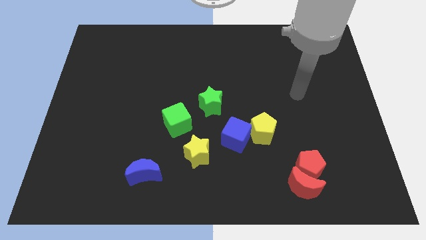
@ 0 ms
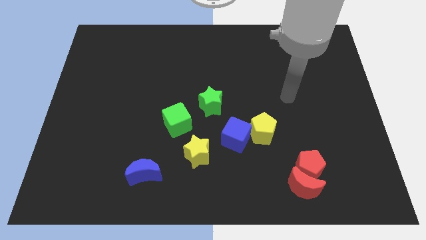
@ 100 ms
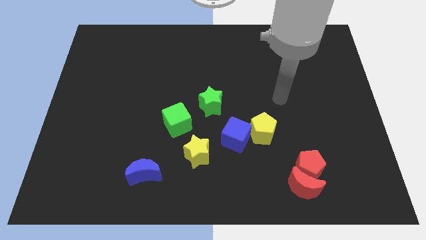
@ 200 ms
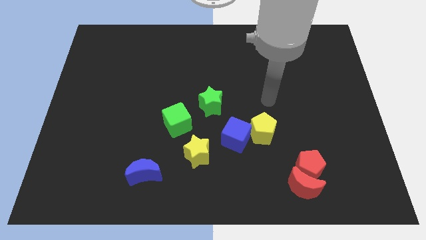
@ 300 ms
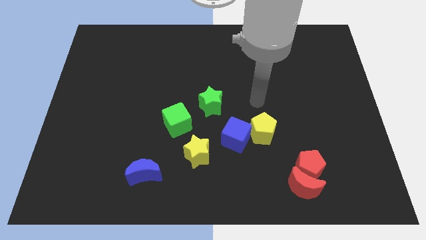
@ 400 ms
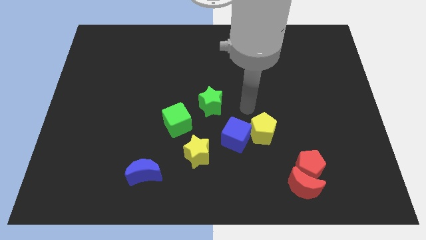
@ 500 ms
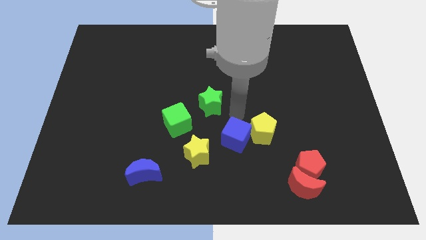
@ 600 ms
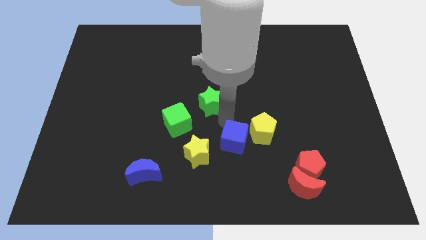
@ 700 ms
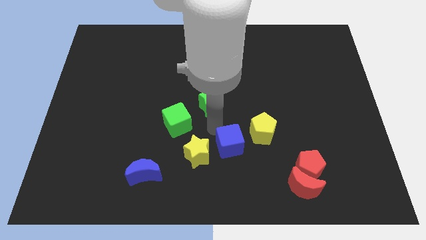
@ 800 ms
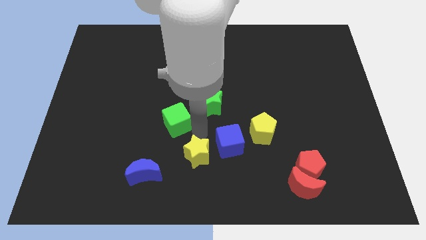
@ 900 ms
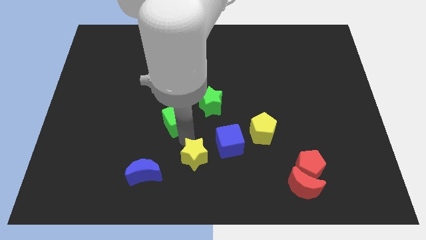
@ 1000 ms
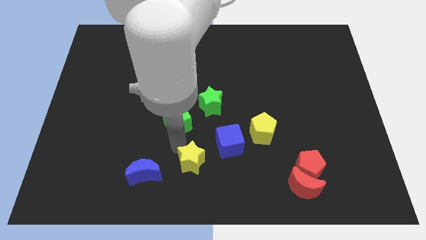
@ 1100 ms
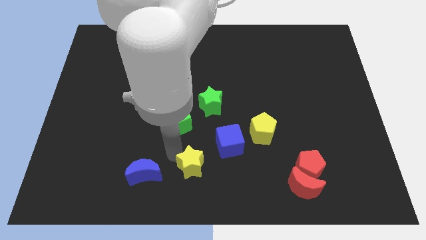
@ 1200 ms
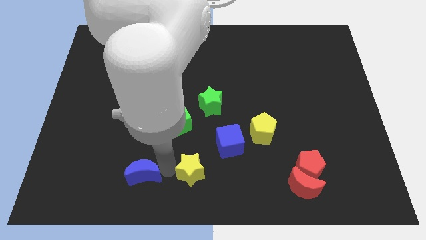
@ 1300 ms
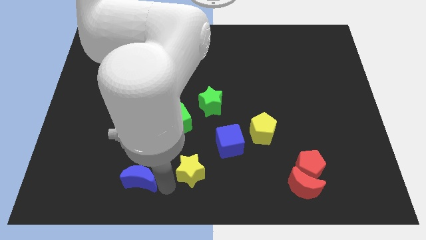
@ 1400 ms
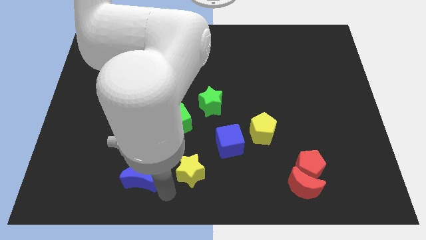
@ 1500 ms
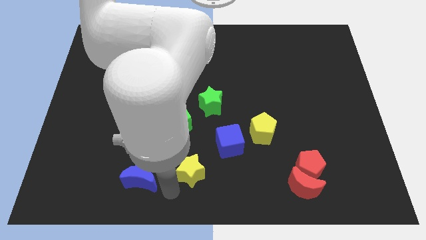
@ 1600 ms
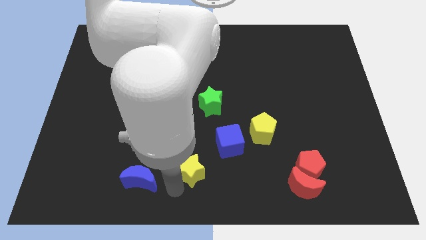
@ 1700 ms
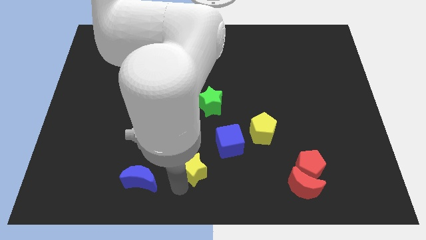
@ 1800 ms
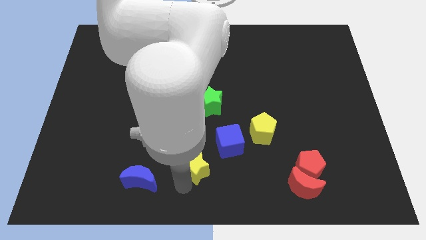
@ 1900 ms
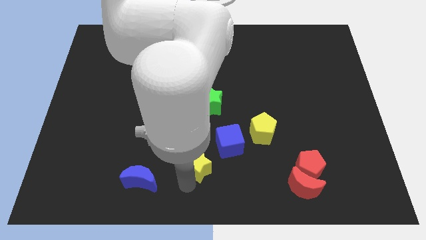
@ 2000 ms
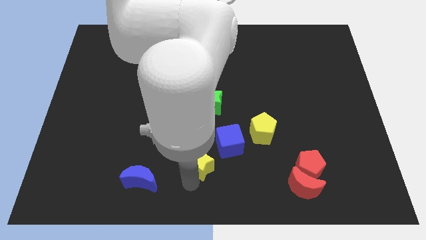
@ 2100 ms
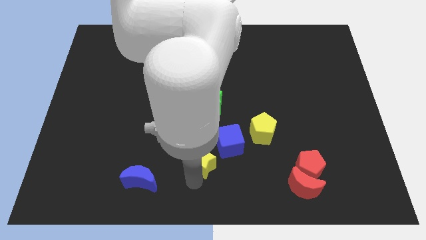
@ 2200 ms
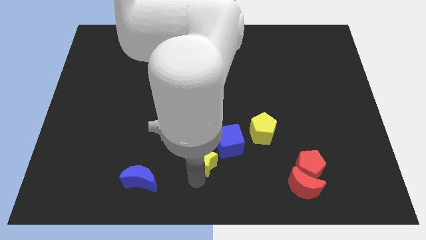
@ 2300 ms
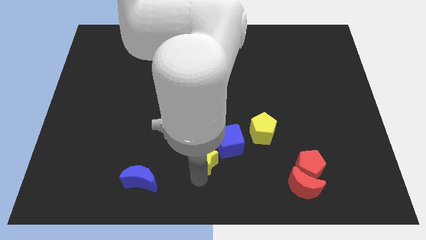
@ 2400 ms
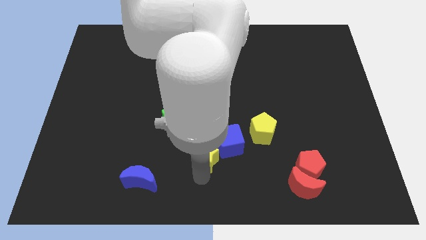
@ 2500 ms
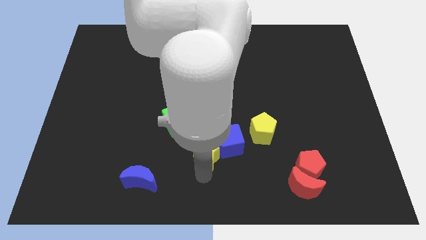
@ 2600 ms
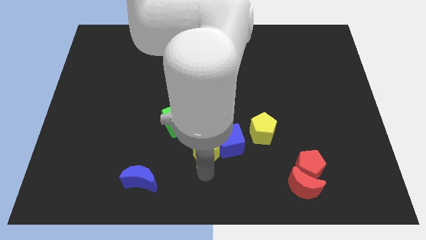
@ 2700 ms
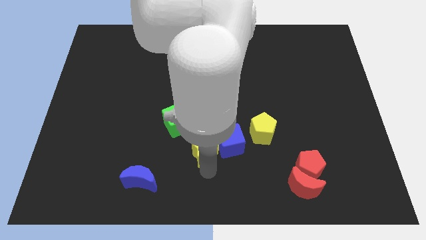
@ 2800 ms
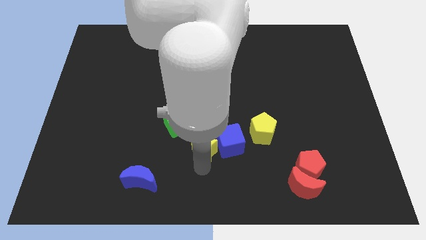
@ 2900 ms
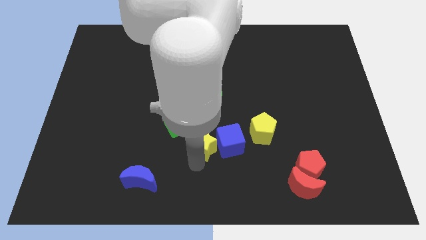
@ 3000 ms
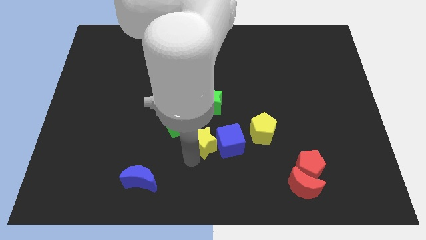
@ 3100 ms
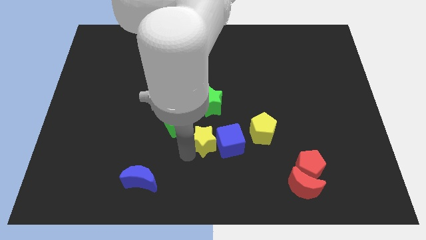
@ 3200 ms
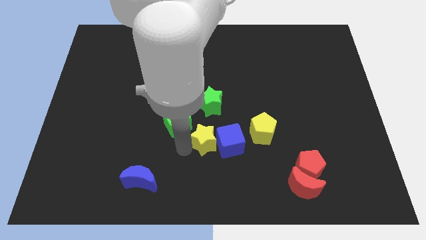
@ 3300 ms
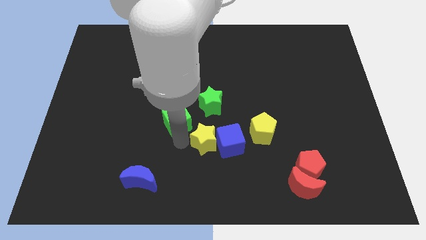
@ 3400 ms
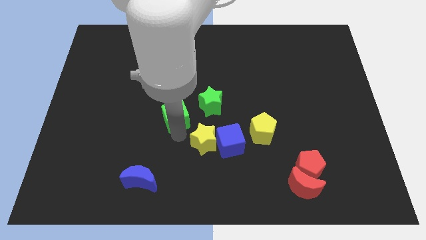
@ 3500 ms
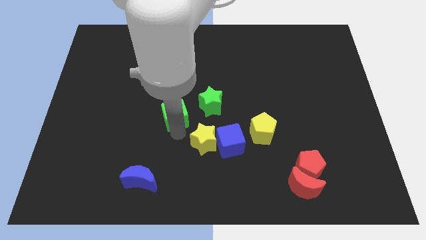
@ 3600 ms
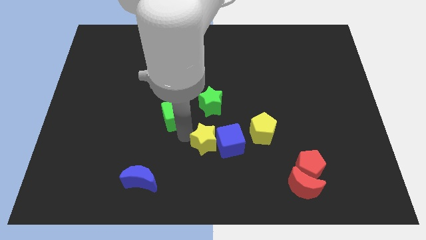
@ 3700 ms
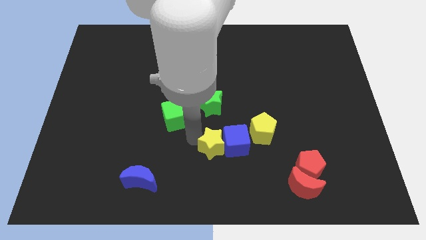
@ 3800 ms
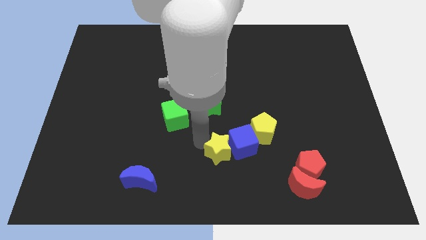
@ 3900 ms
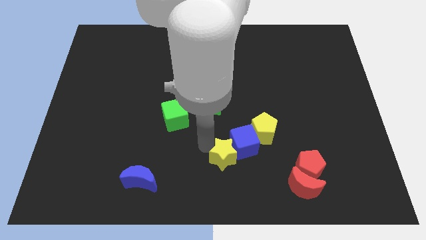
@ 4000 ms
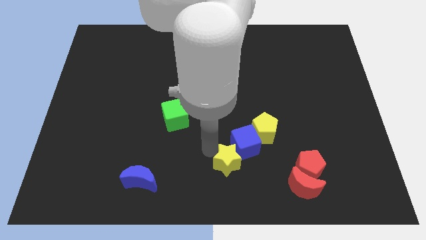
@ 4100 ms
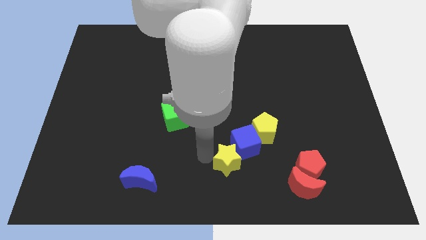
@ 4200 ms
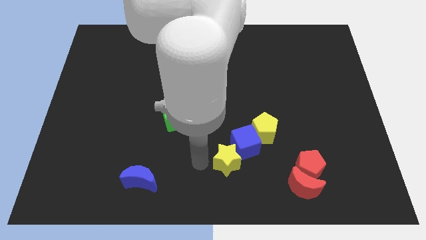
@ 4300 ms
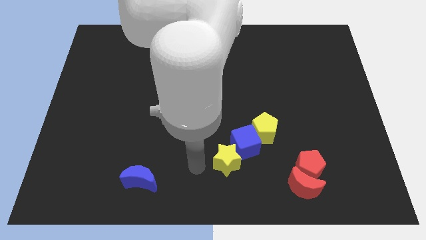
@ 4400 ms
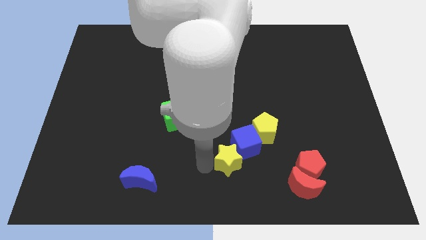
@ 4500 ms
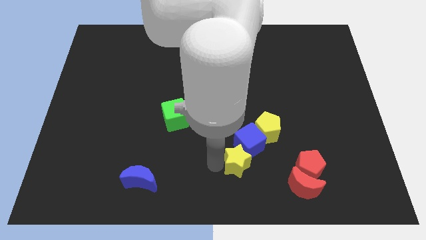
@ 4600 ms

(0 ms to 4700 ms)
slightly move the yellow star right

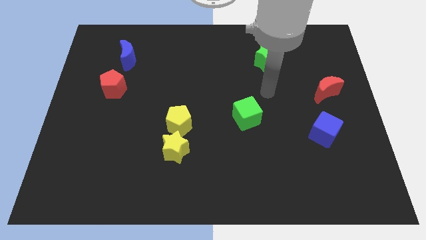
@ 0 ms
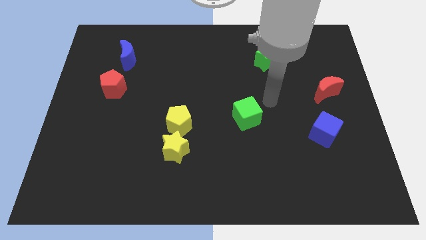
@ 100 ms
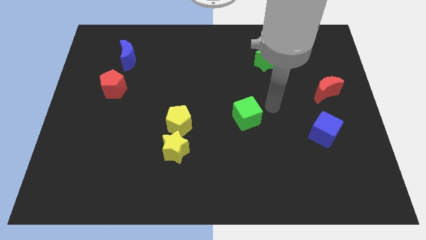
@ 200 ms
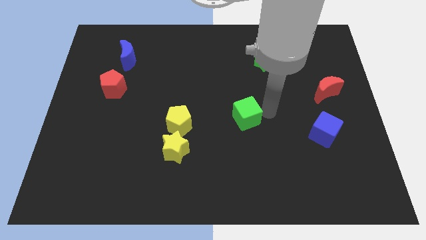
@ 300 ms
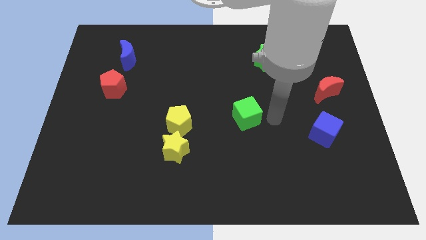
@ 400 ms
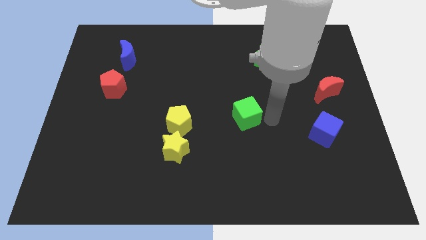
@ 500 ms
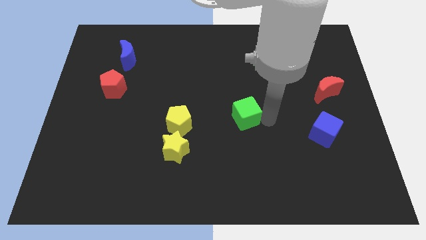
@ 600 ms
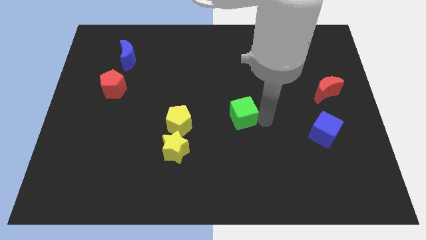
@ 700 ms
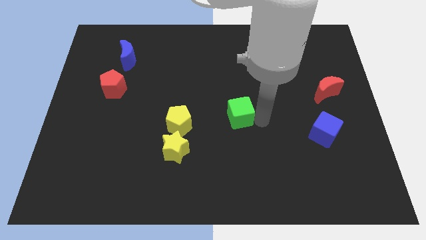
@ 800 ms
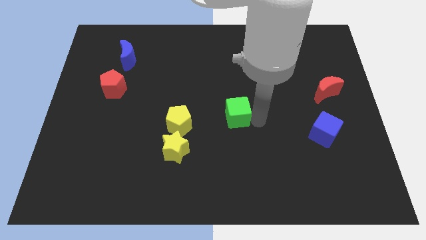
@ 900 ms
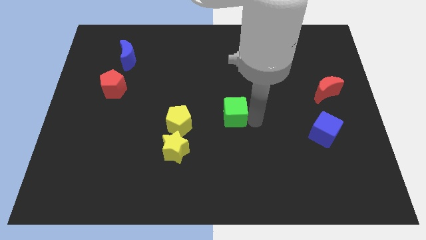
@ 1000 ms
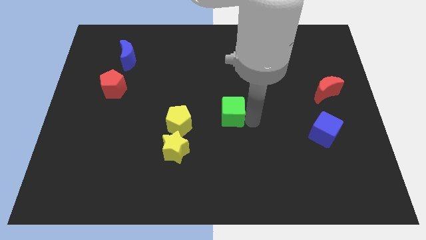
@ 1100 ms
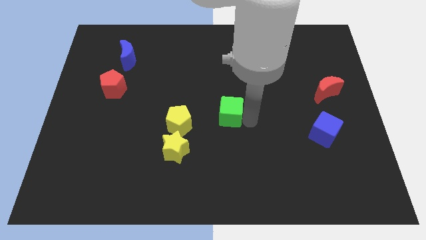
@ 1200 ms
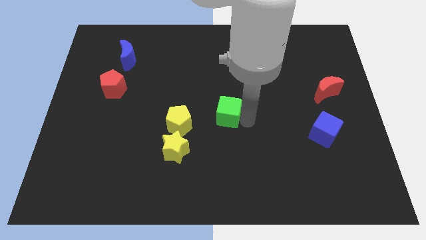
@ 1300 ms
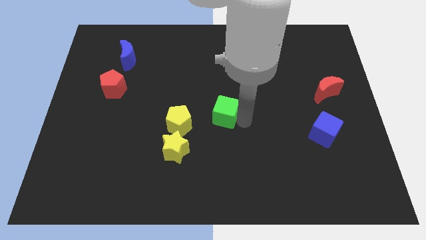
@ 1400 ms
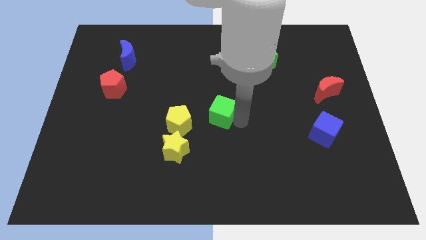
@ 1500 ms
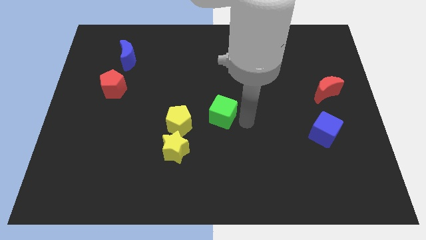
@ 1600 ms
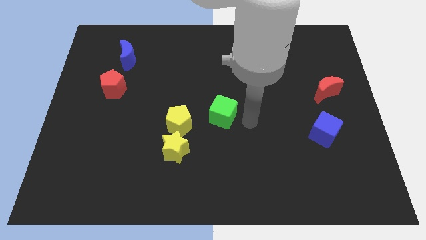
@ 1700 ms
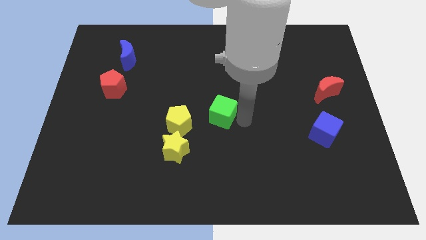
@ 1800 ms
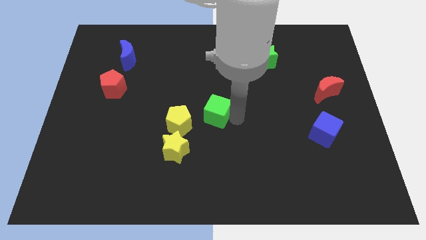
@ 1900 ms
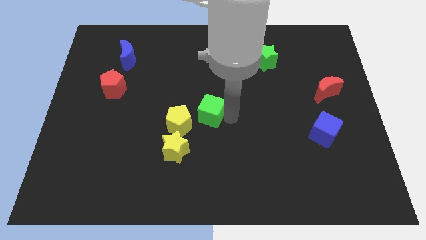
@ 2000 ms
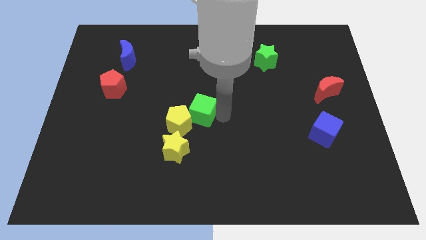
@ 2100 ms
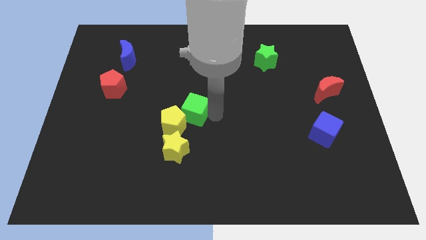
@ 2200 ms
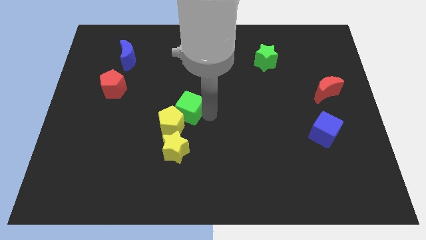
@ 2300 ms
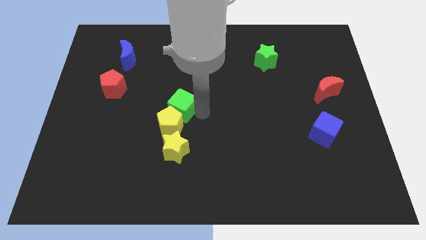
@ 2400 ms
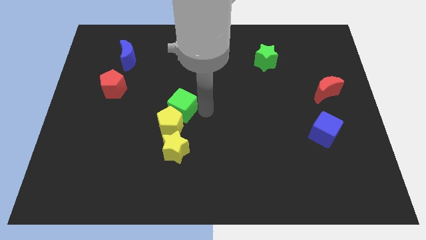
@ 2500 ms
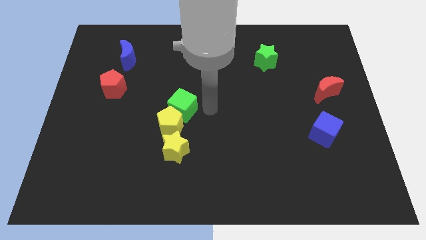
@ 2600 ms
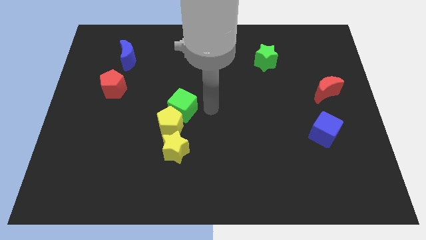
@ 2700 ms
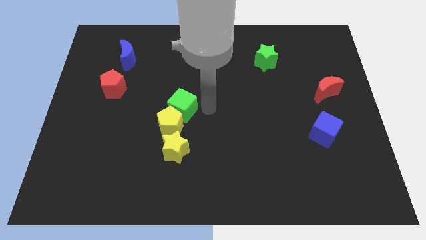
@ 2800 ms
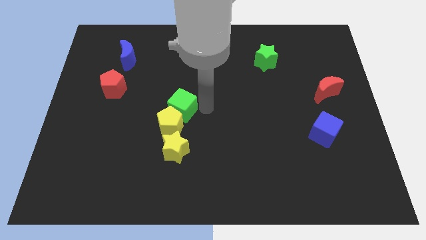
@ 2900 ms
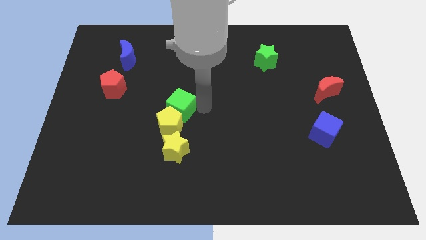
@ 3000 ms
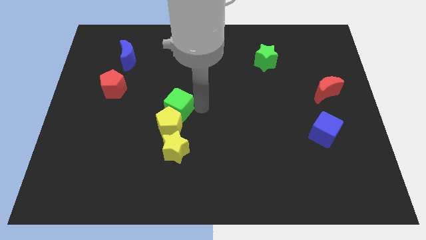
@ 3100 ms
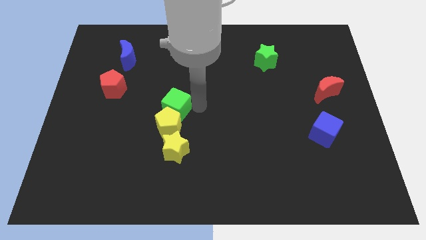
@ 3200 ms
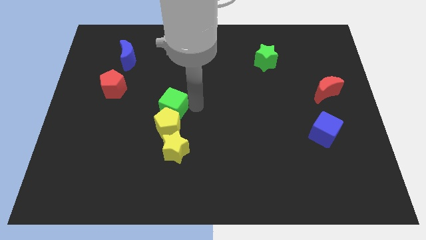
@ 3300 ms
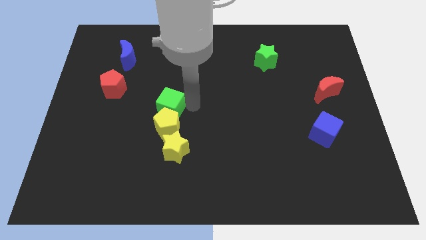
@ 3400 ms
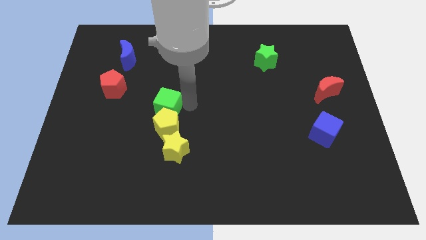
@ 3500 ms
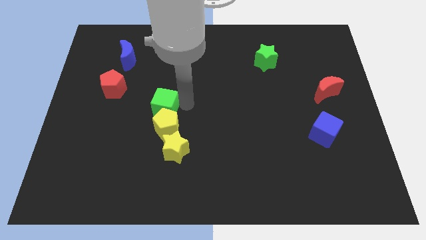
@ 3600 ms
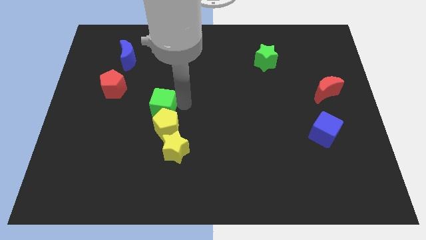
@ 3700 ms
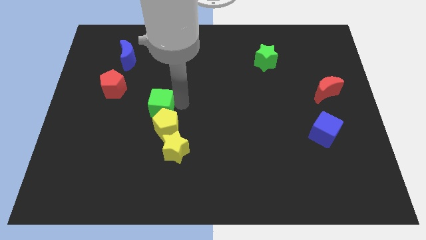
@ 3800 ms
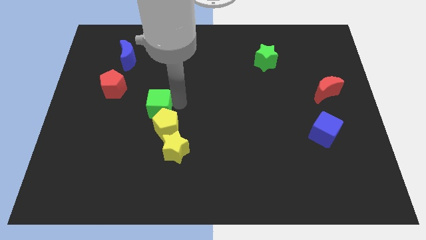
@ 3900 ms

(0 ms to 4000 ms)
move the green cube to the left
